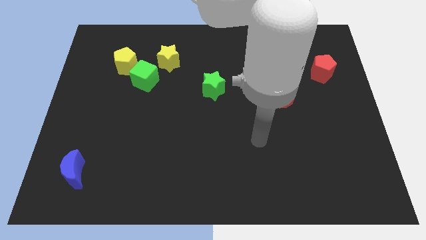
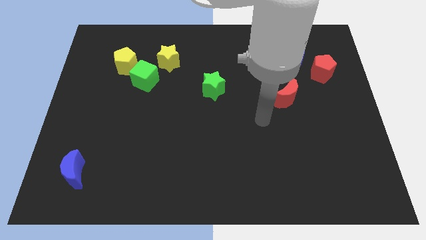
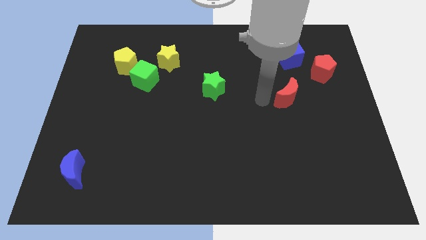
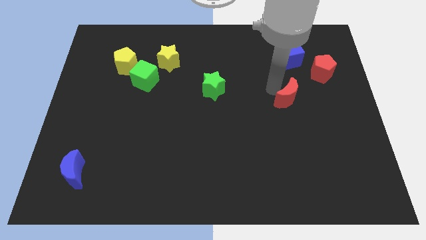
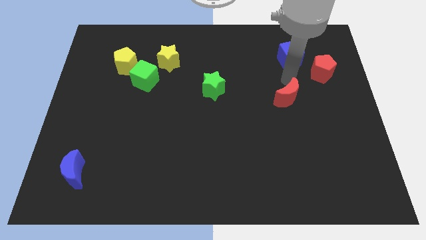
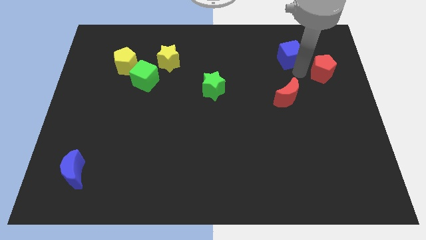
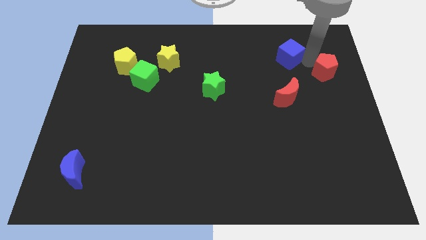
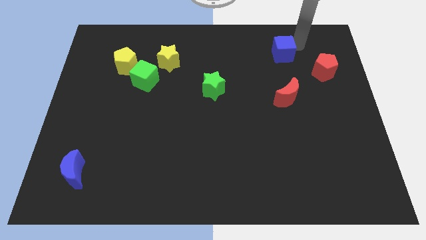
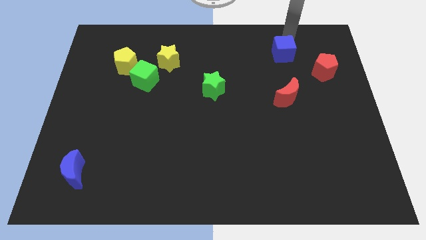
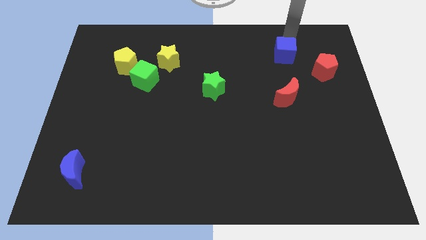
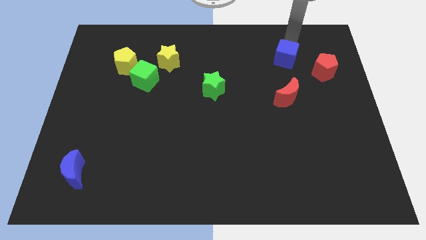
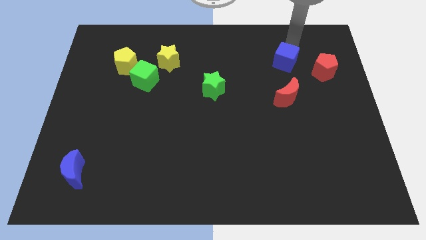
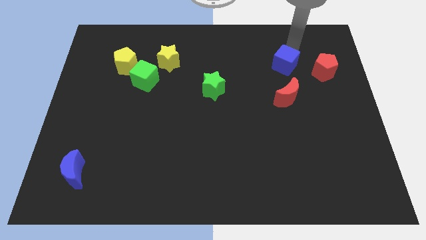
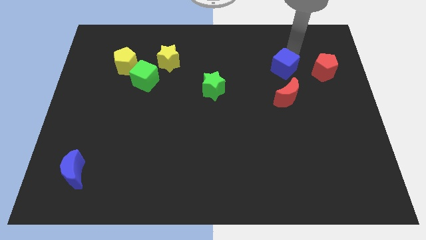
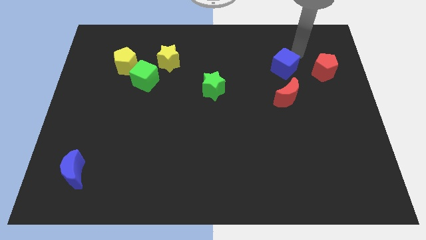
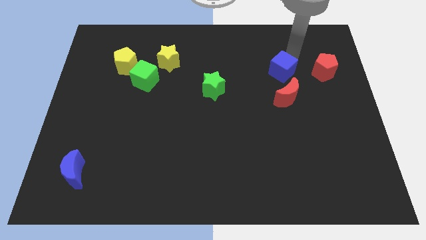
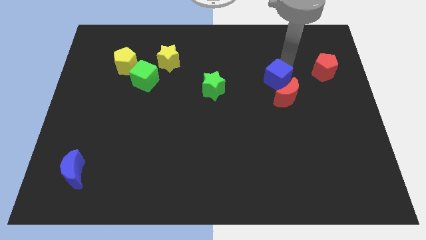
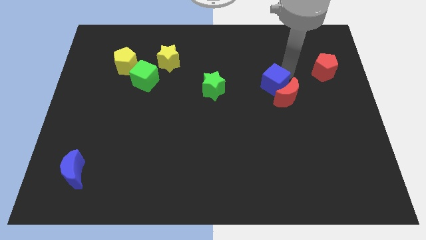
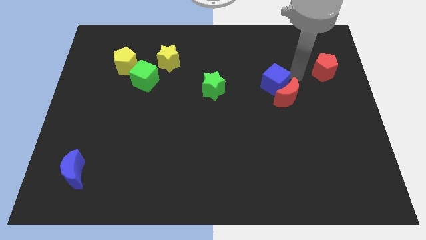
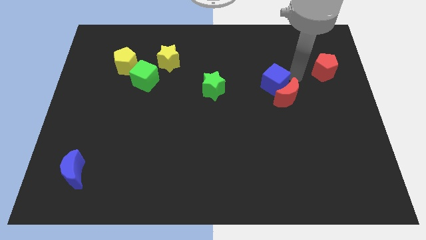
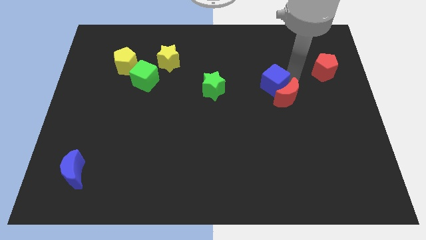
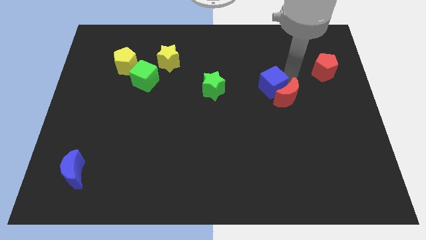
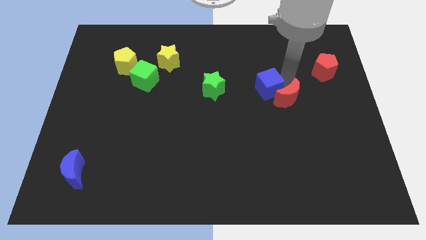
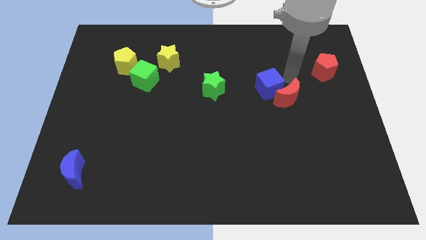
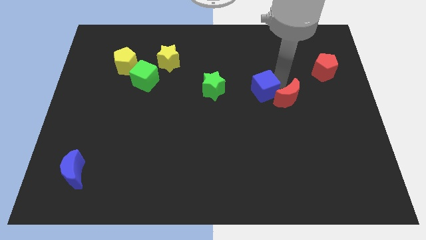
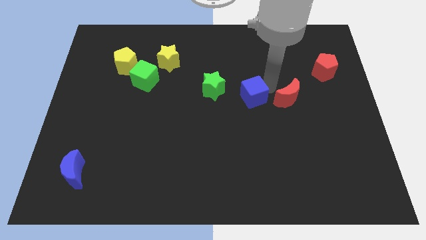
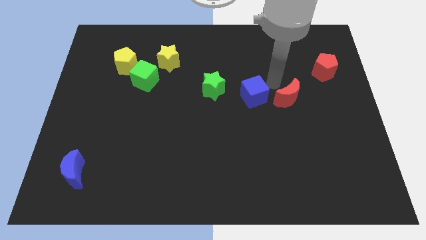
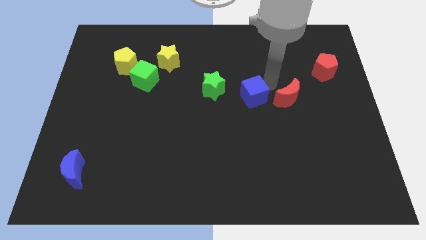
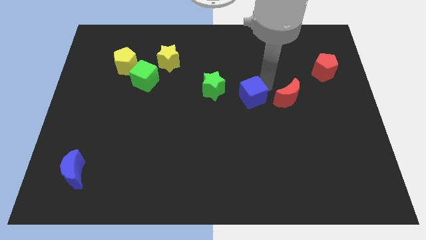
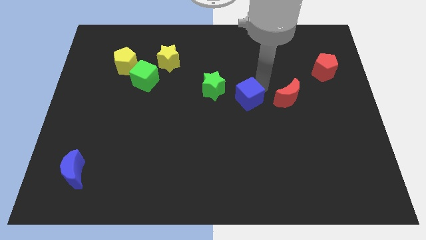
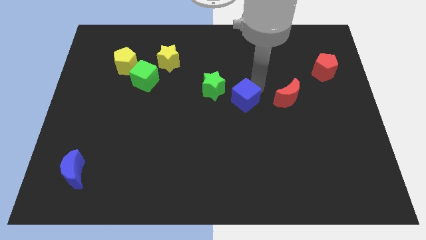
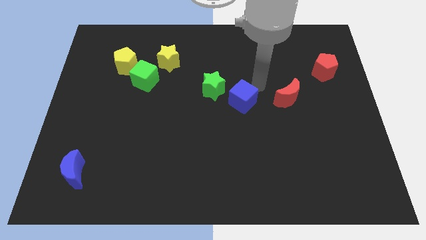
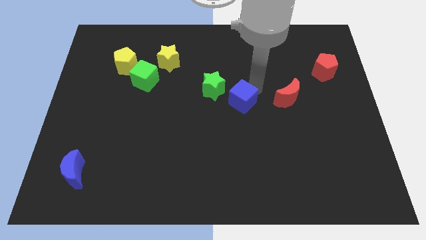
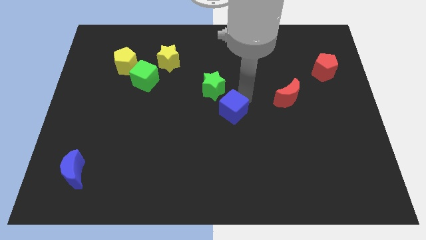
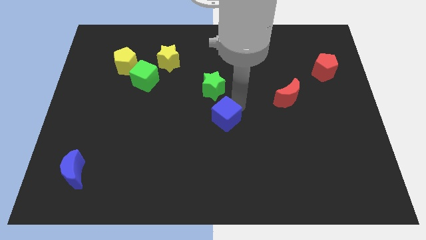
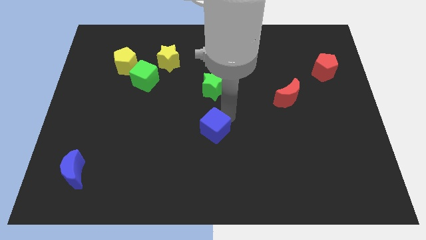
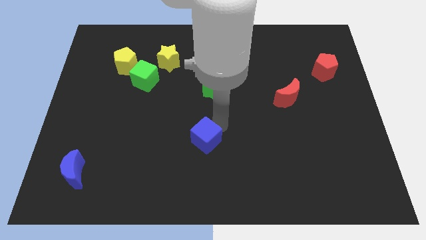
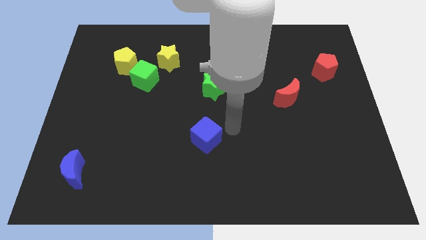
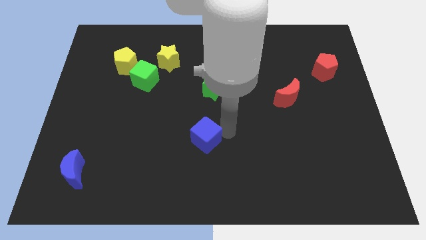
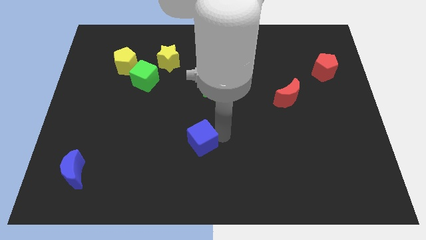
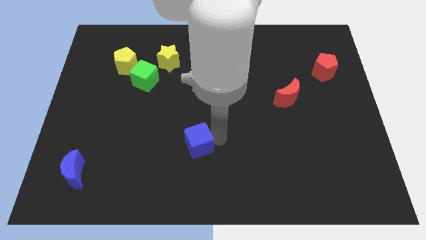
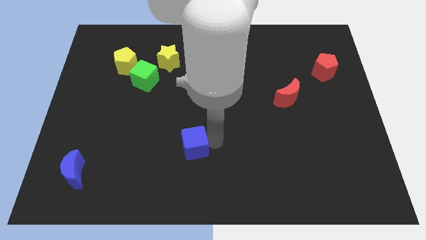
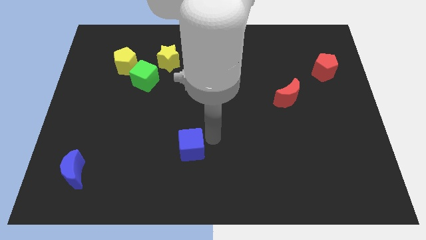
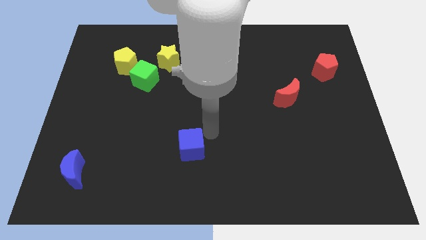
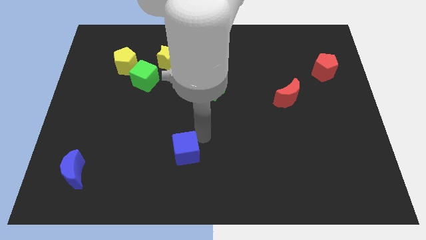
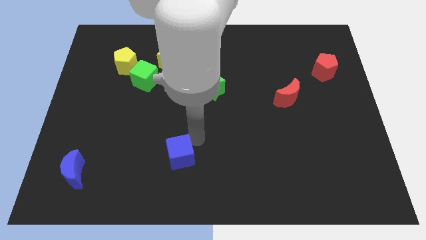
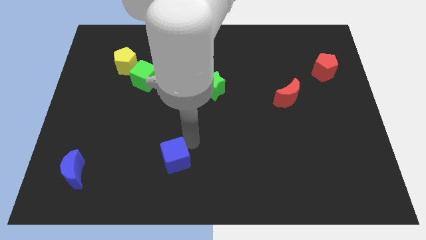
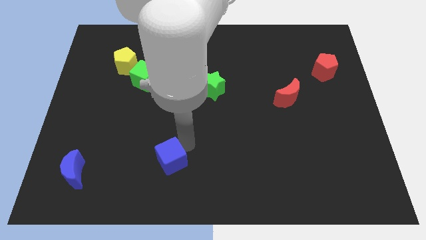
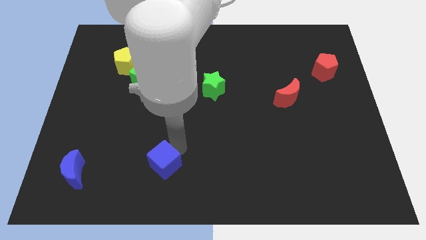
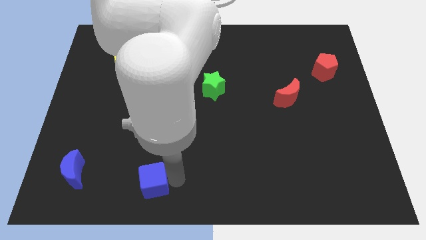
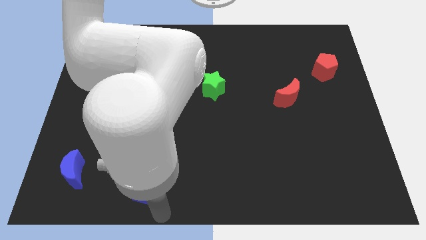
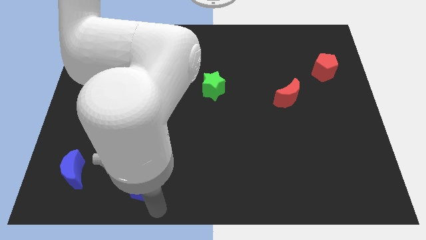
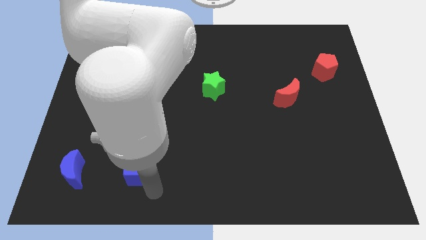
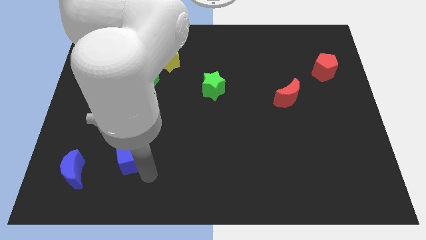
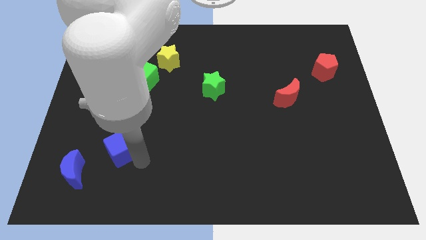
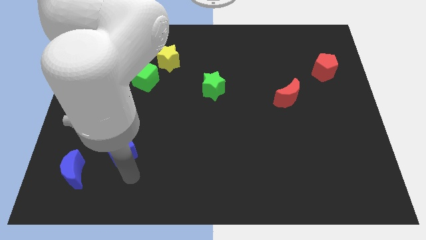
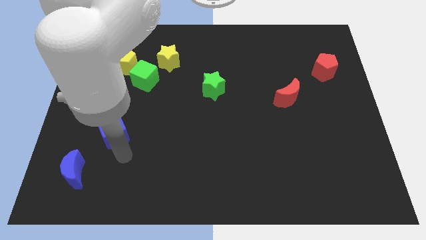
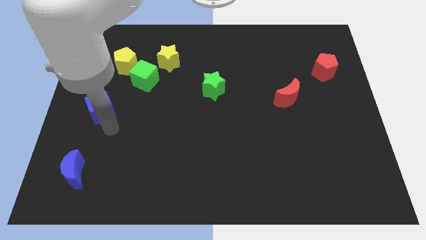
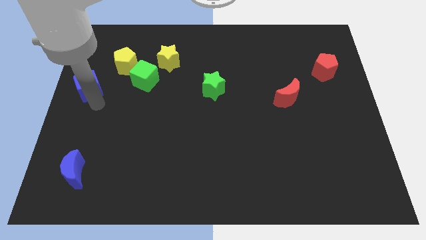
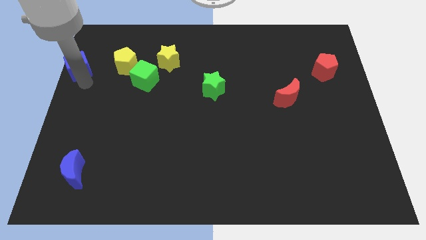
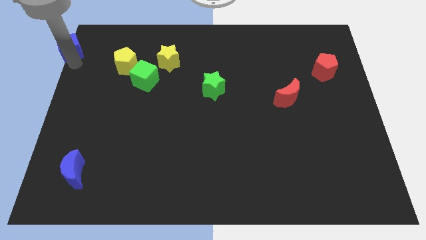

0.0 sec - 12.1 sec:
put the blue cube to the upper left corner
